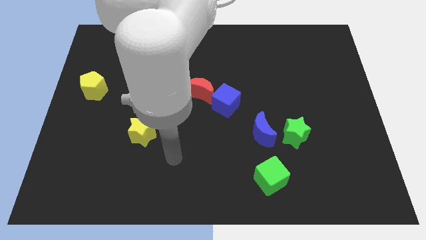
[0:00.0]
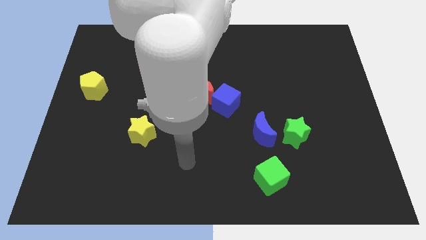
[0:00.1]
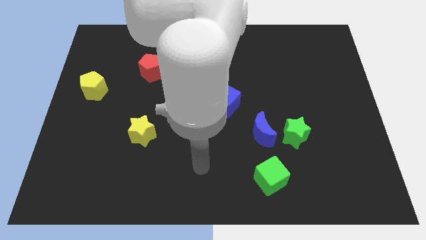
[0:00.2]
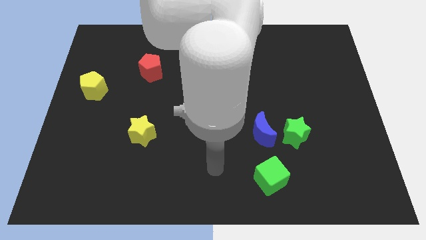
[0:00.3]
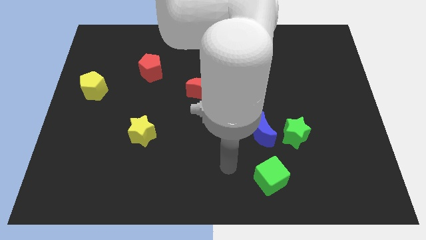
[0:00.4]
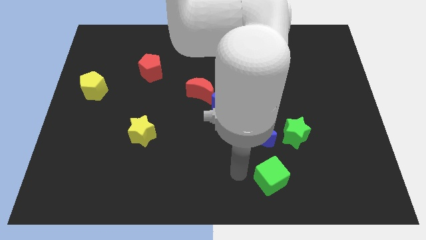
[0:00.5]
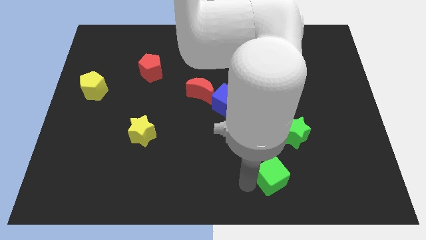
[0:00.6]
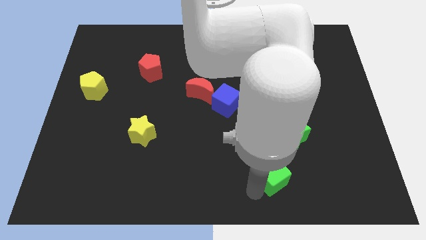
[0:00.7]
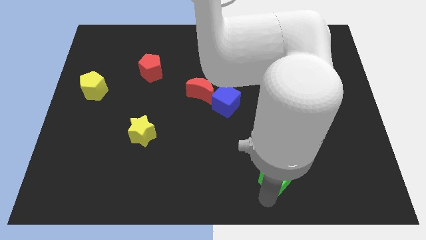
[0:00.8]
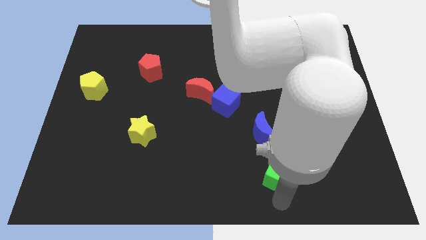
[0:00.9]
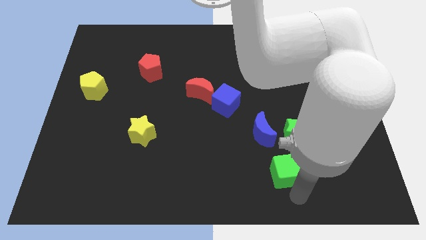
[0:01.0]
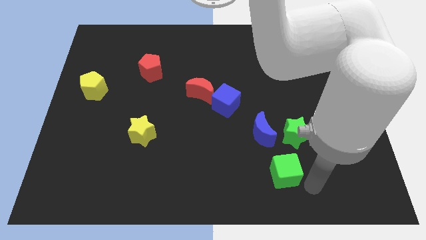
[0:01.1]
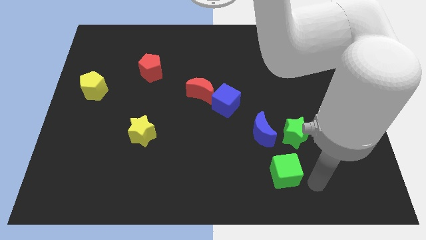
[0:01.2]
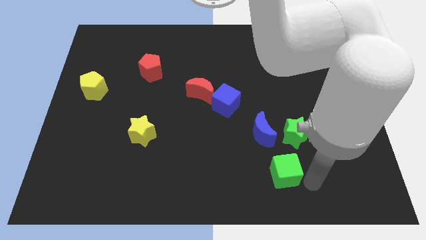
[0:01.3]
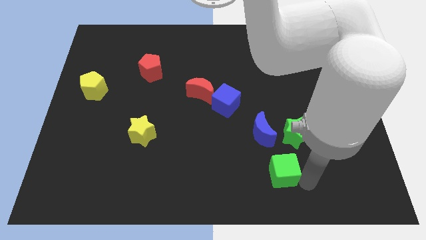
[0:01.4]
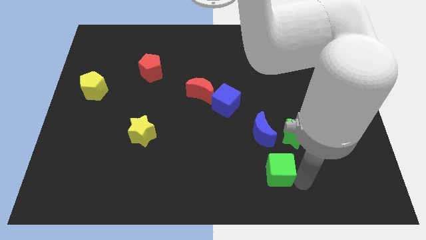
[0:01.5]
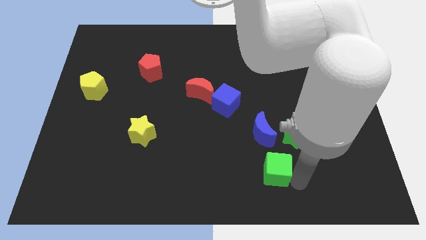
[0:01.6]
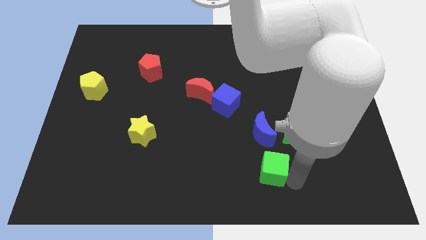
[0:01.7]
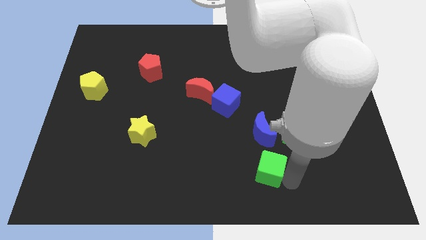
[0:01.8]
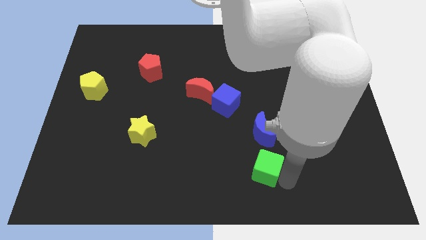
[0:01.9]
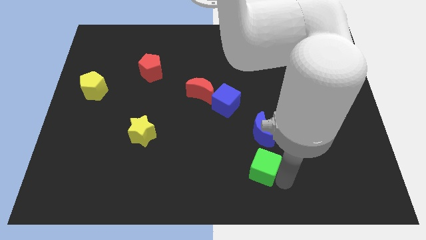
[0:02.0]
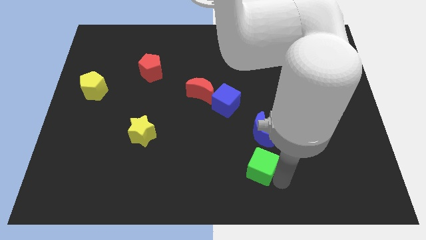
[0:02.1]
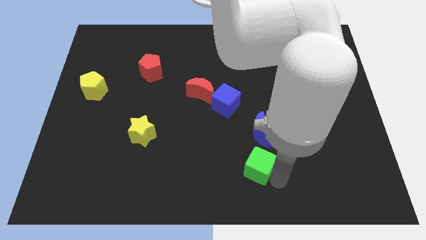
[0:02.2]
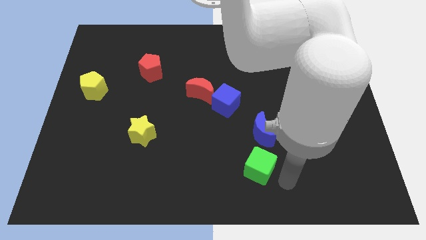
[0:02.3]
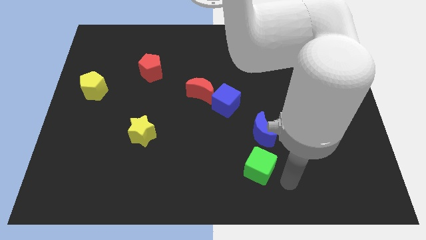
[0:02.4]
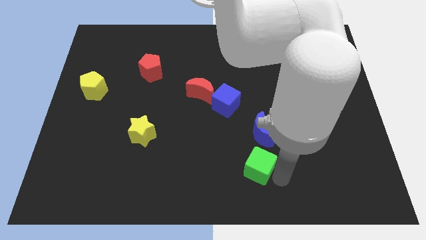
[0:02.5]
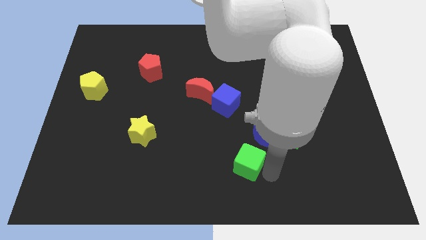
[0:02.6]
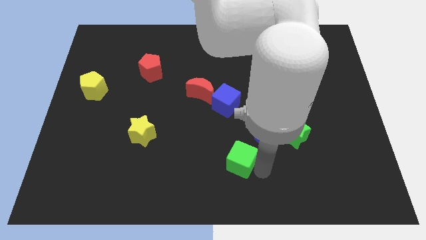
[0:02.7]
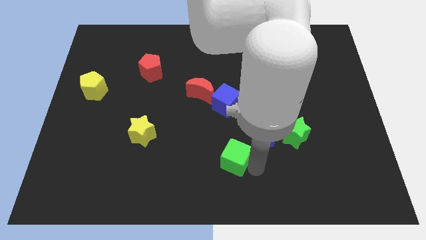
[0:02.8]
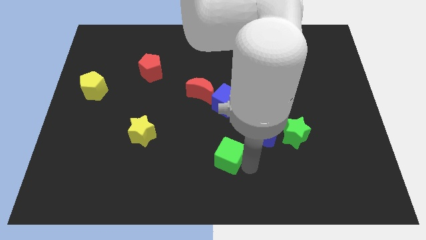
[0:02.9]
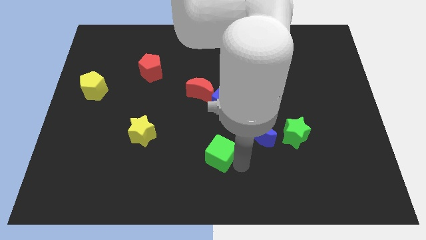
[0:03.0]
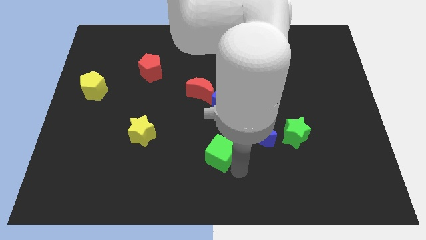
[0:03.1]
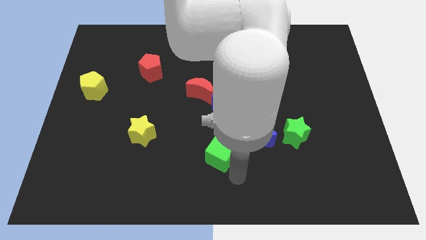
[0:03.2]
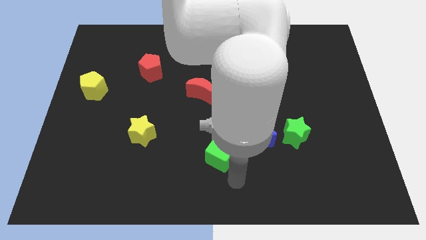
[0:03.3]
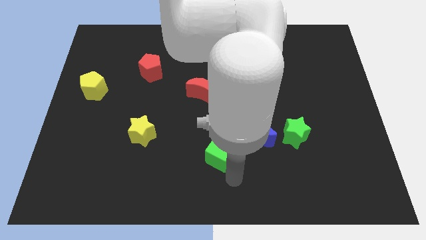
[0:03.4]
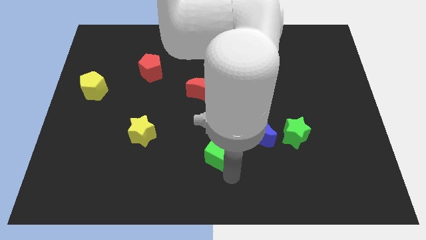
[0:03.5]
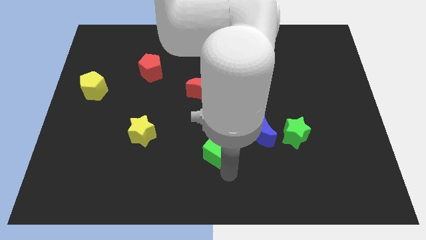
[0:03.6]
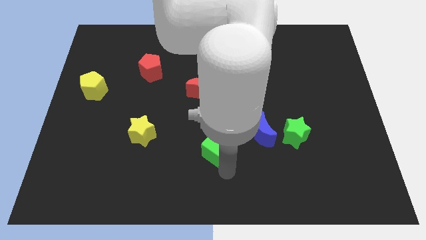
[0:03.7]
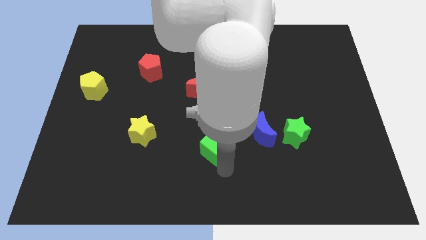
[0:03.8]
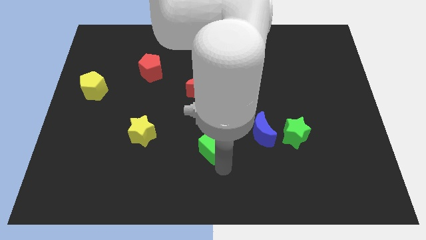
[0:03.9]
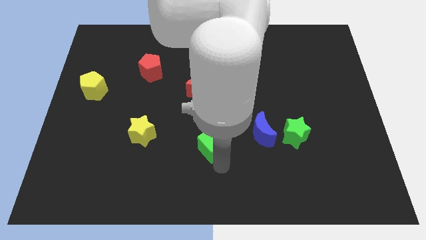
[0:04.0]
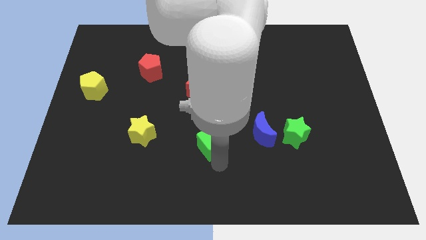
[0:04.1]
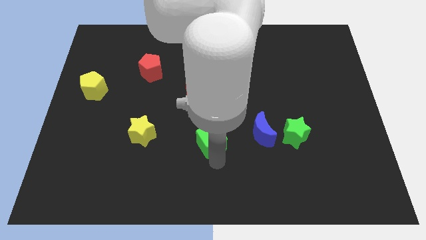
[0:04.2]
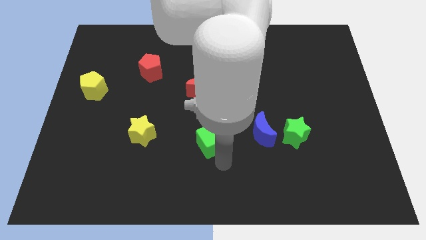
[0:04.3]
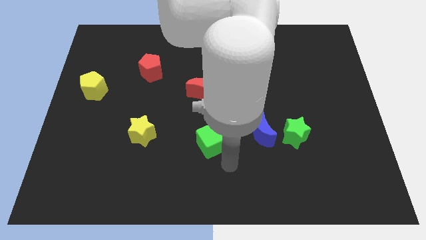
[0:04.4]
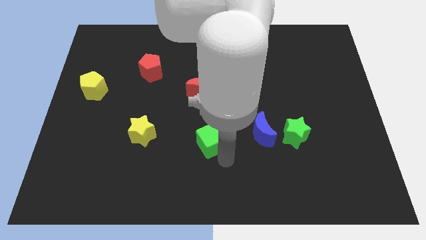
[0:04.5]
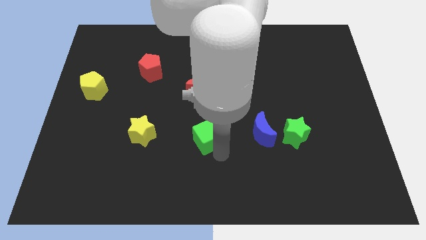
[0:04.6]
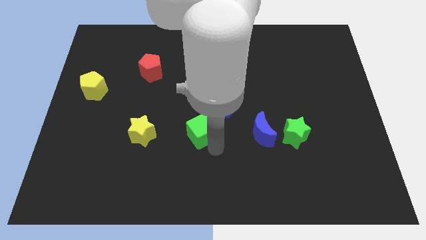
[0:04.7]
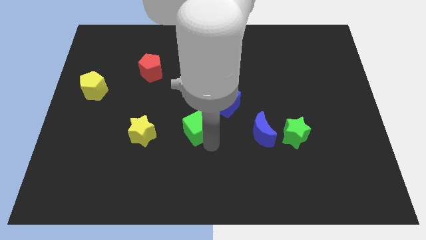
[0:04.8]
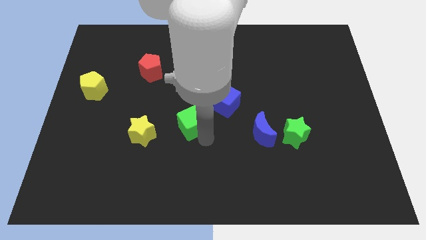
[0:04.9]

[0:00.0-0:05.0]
move the green cube upwards and to the left

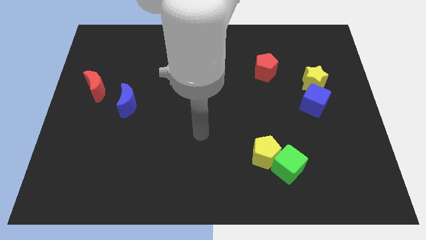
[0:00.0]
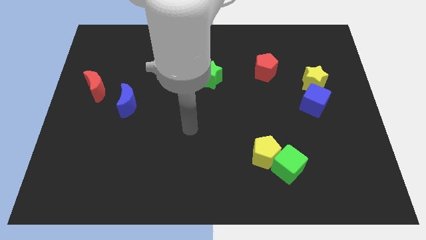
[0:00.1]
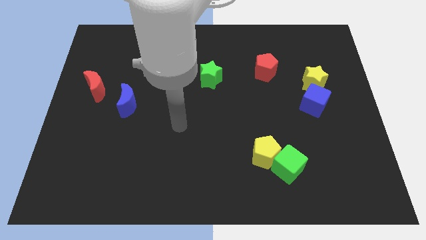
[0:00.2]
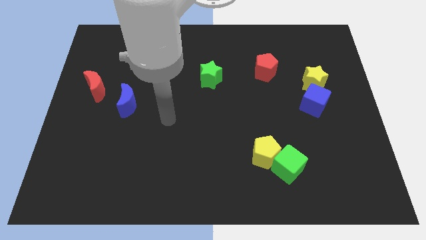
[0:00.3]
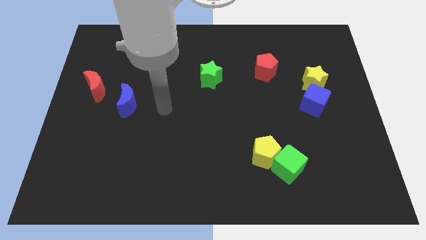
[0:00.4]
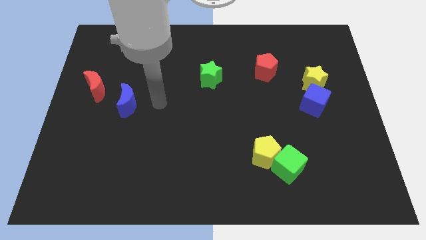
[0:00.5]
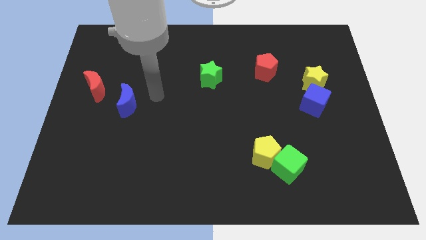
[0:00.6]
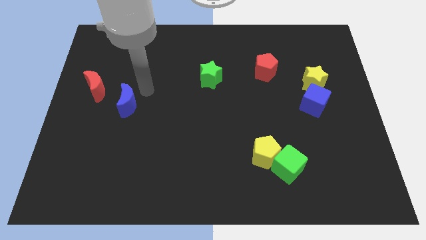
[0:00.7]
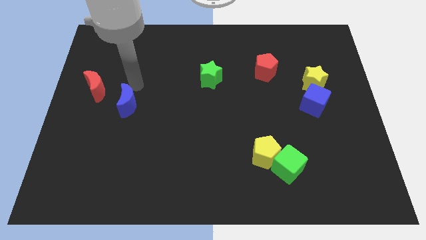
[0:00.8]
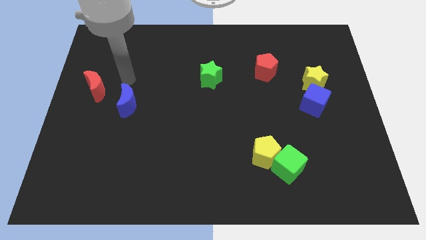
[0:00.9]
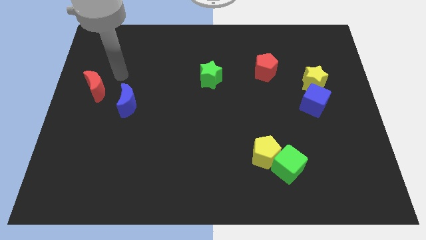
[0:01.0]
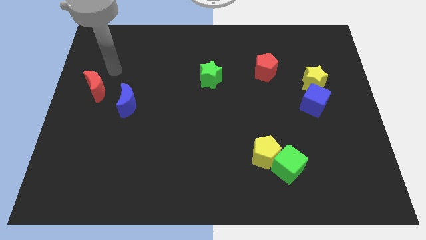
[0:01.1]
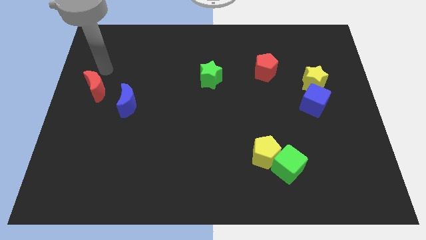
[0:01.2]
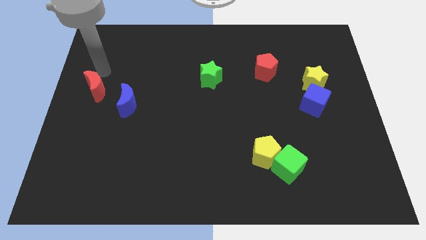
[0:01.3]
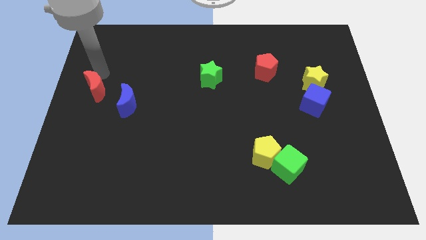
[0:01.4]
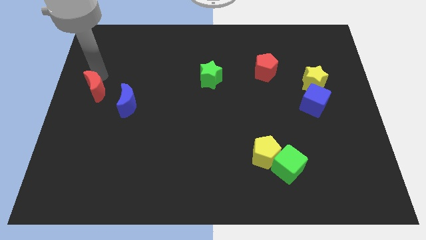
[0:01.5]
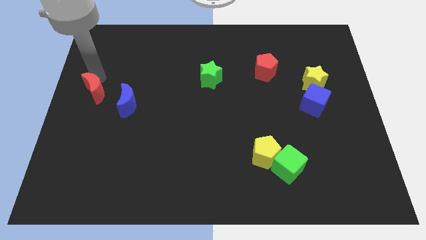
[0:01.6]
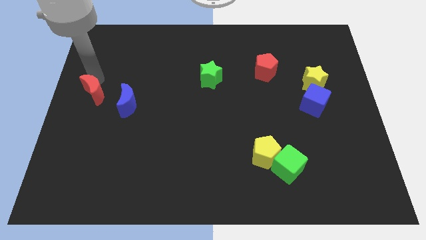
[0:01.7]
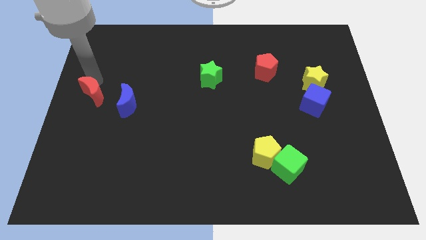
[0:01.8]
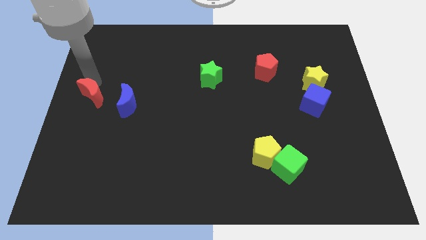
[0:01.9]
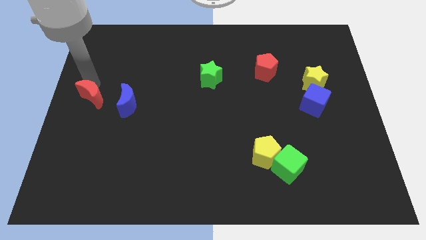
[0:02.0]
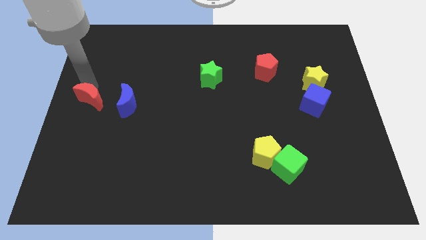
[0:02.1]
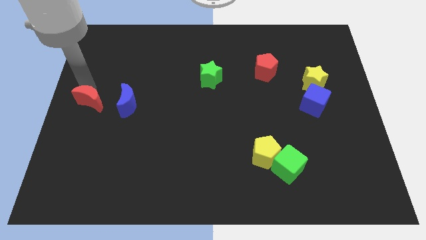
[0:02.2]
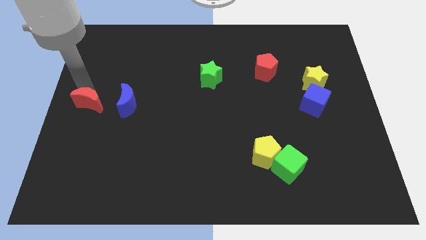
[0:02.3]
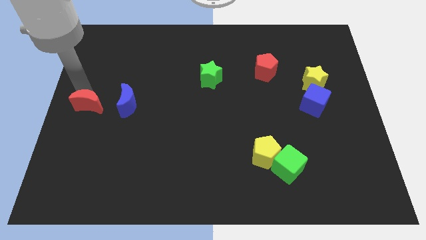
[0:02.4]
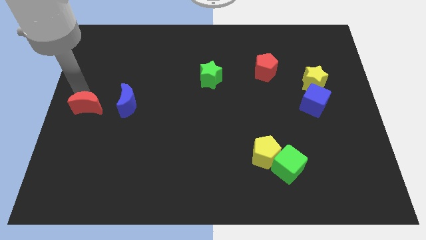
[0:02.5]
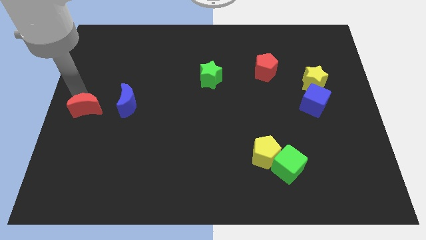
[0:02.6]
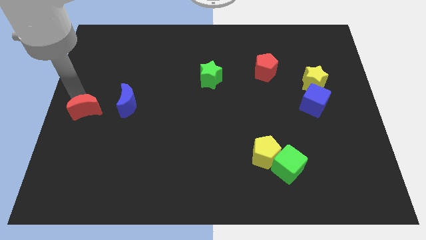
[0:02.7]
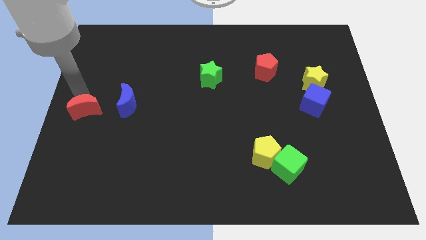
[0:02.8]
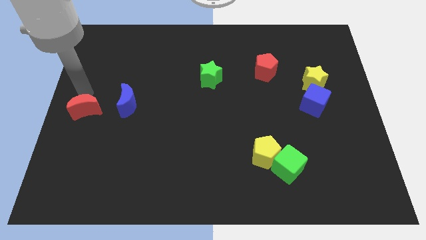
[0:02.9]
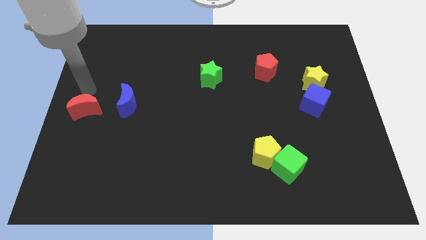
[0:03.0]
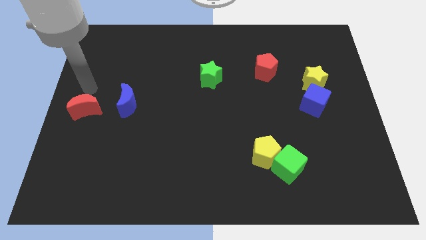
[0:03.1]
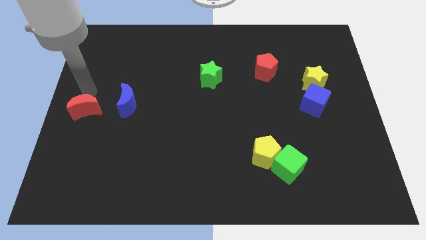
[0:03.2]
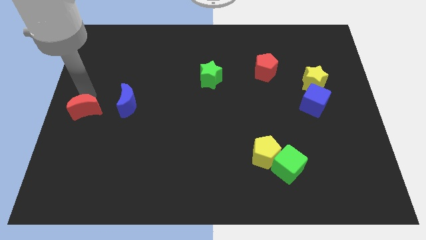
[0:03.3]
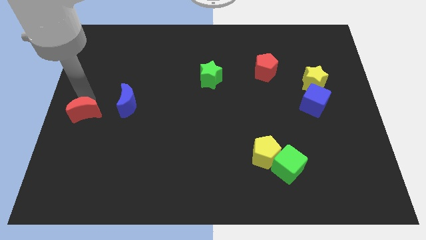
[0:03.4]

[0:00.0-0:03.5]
move the red moon a little down

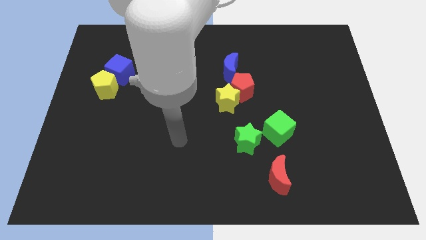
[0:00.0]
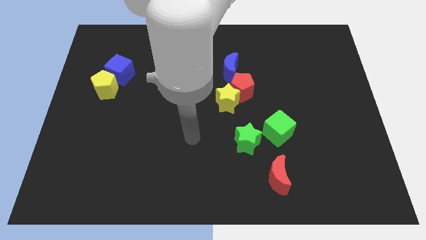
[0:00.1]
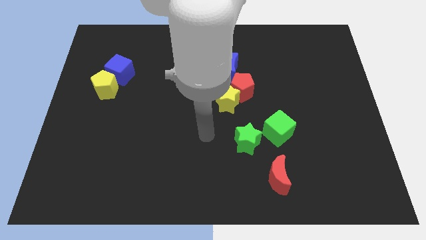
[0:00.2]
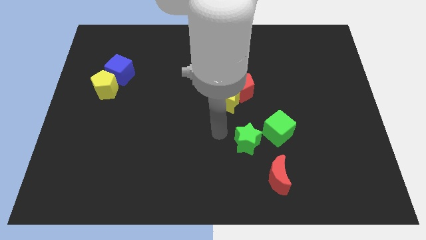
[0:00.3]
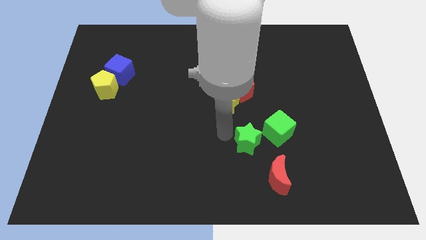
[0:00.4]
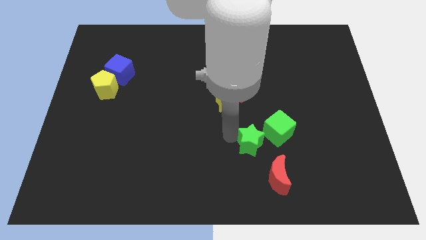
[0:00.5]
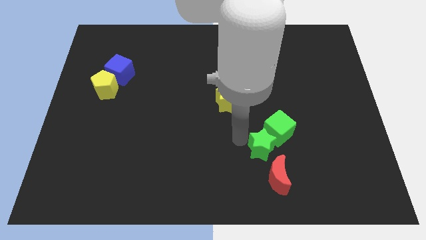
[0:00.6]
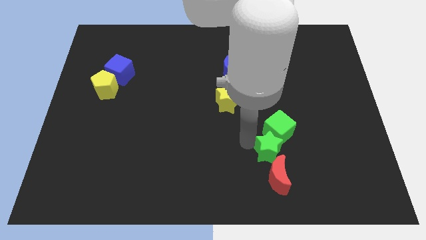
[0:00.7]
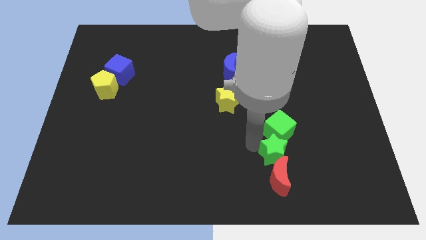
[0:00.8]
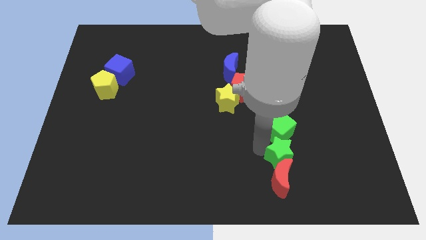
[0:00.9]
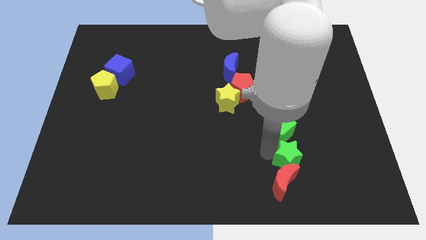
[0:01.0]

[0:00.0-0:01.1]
push the green star right a bit
